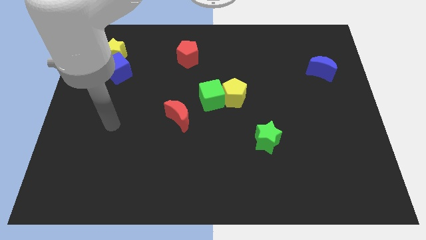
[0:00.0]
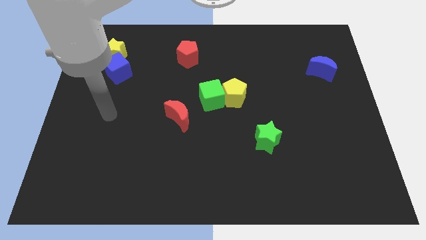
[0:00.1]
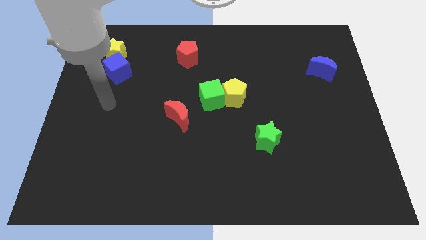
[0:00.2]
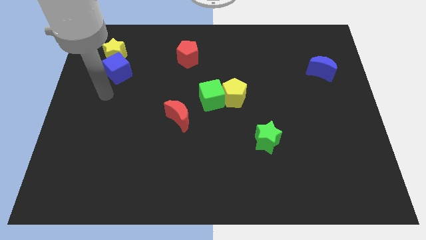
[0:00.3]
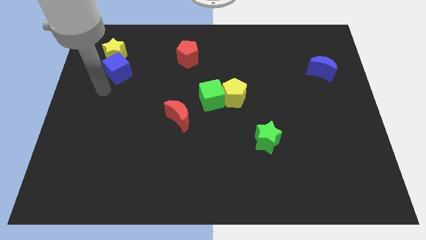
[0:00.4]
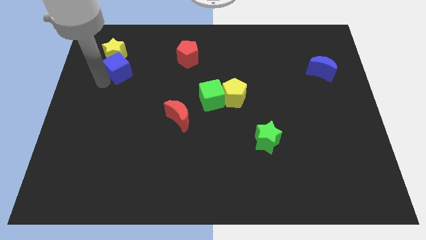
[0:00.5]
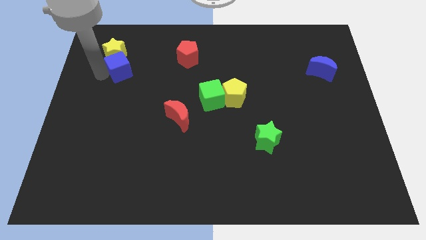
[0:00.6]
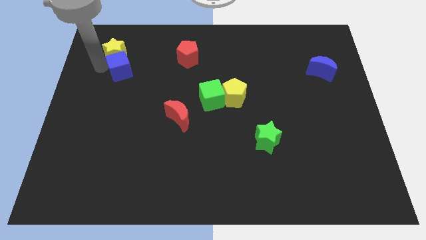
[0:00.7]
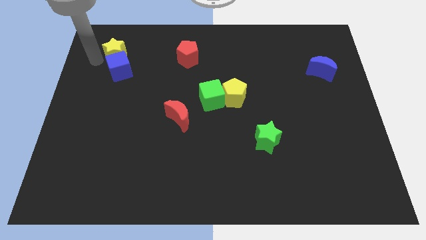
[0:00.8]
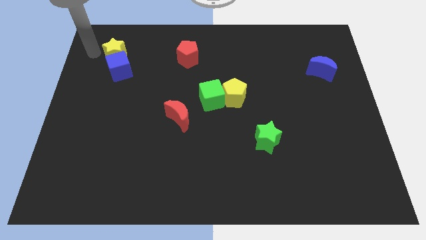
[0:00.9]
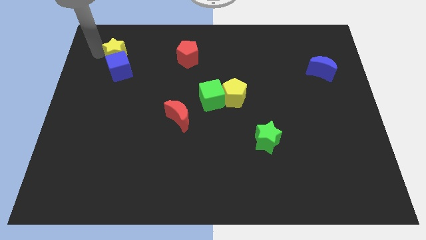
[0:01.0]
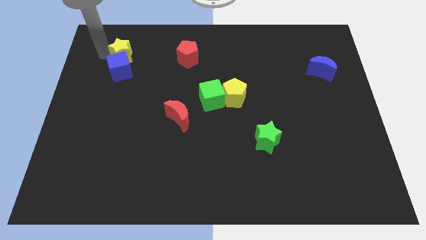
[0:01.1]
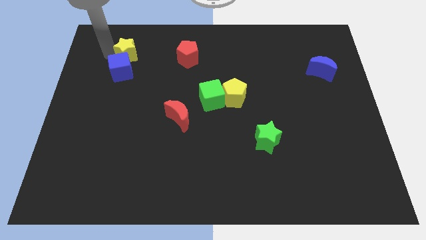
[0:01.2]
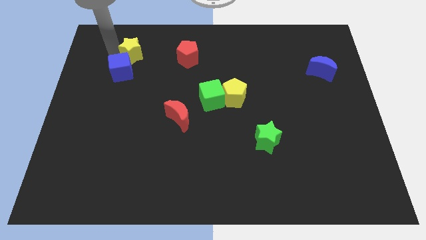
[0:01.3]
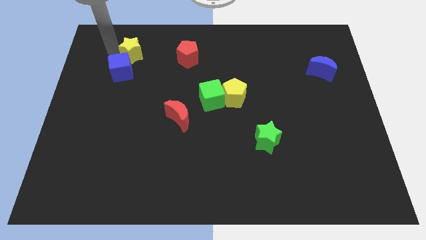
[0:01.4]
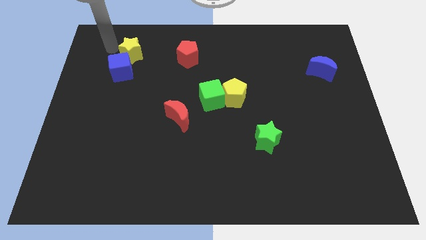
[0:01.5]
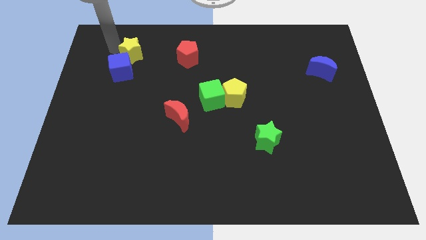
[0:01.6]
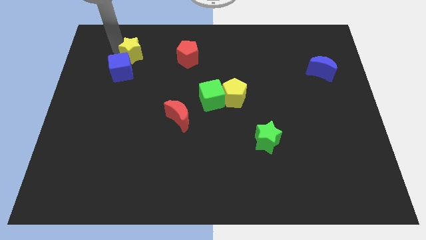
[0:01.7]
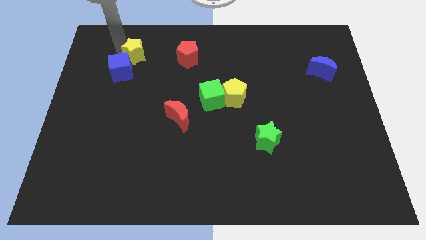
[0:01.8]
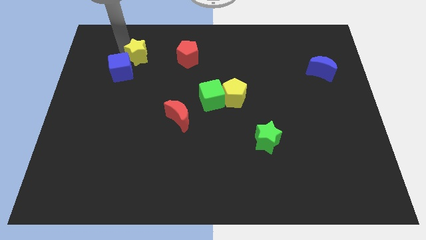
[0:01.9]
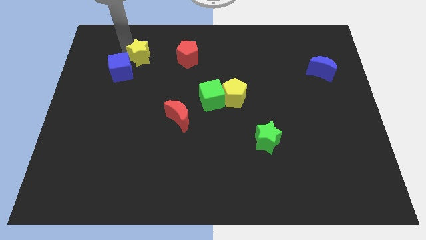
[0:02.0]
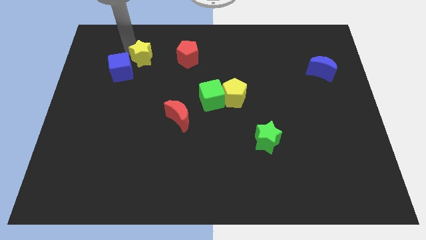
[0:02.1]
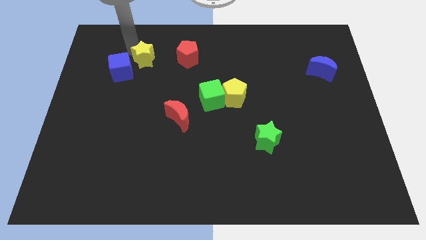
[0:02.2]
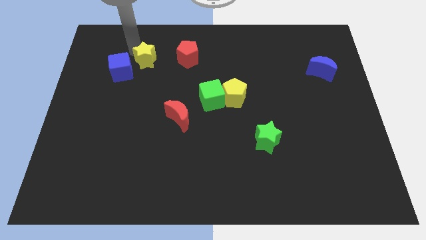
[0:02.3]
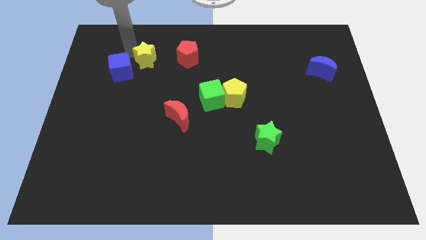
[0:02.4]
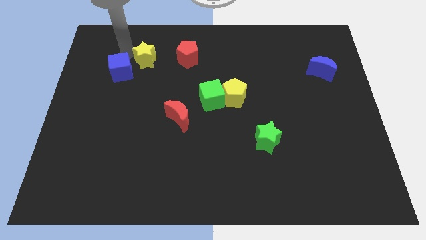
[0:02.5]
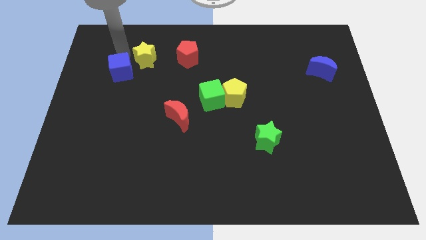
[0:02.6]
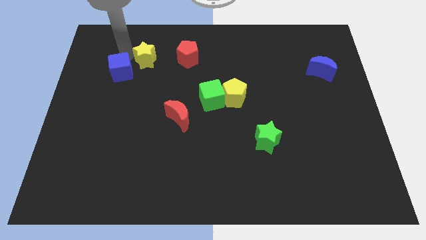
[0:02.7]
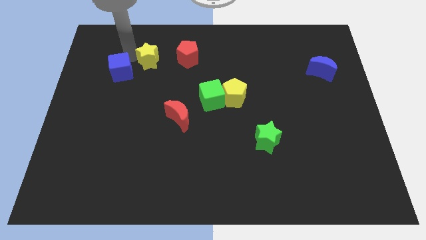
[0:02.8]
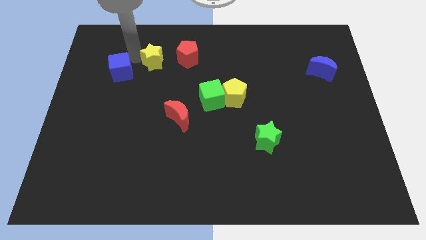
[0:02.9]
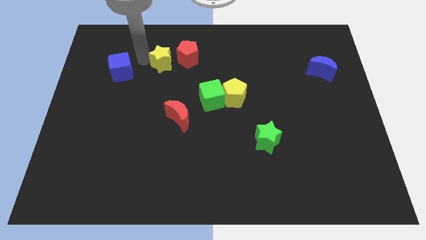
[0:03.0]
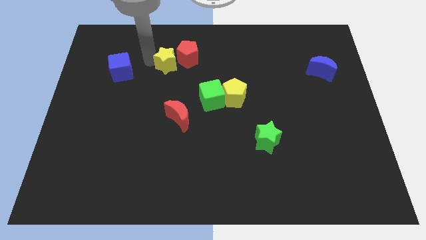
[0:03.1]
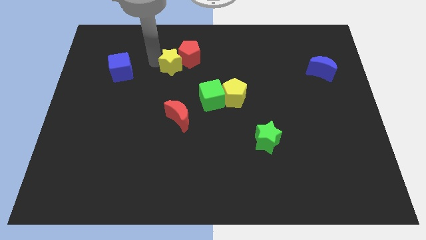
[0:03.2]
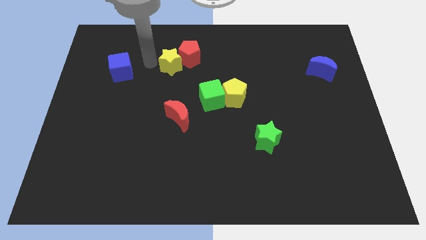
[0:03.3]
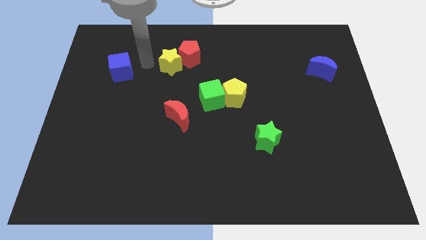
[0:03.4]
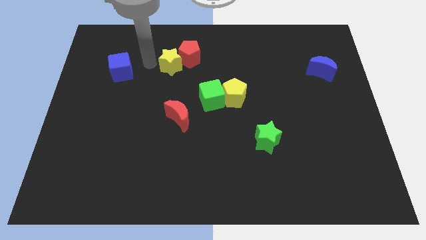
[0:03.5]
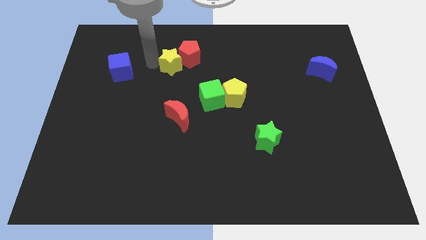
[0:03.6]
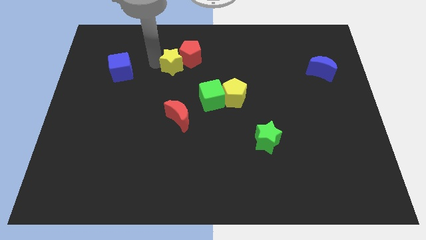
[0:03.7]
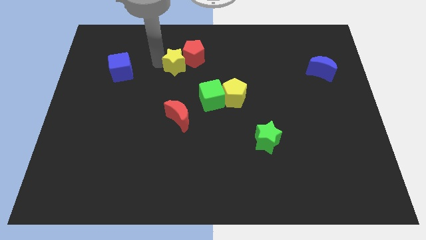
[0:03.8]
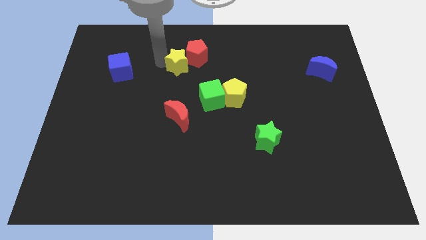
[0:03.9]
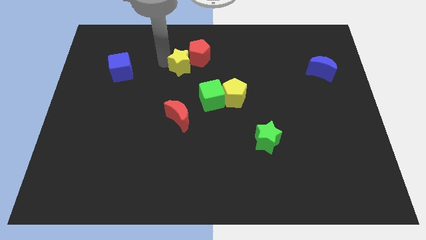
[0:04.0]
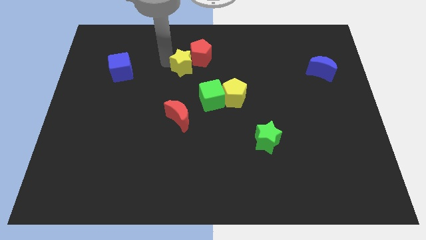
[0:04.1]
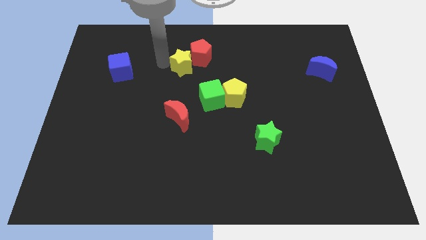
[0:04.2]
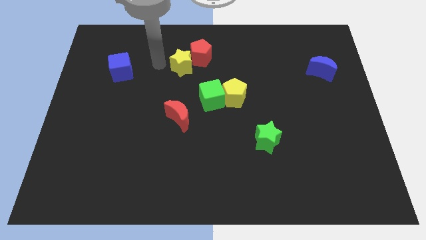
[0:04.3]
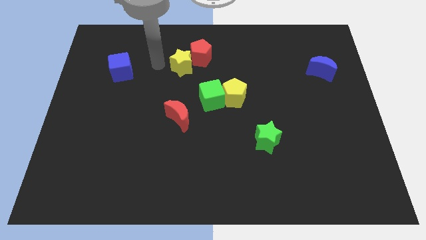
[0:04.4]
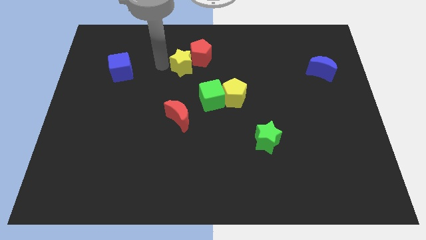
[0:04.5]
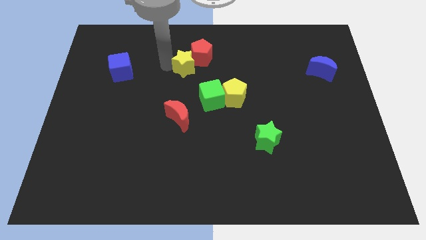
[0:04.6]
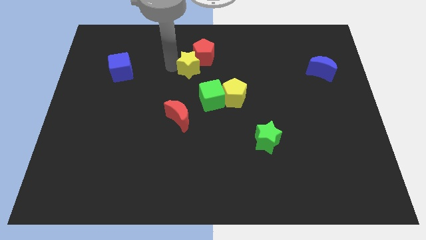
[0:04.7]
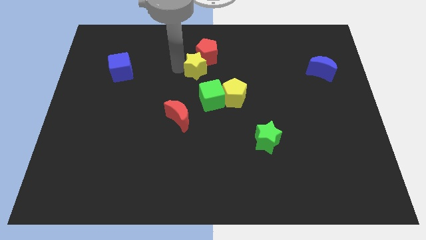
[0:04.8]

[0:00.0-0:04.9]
put the yellow star to the top side of the green cube

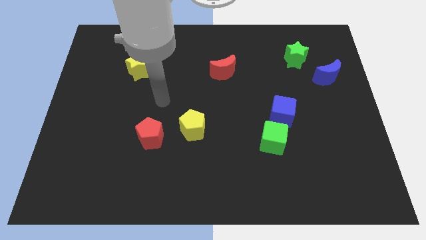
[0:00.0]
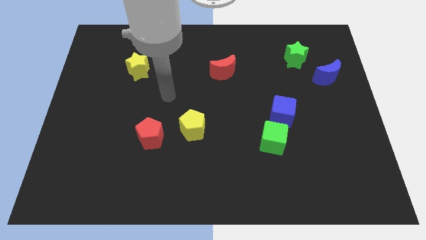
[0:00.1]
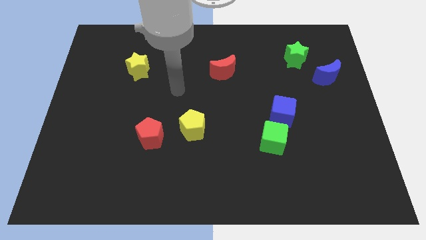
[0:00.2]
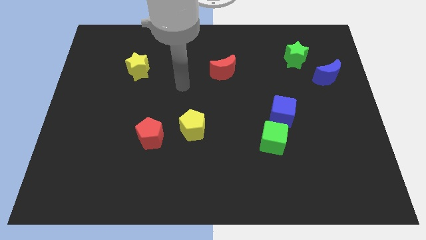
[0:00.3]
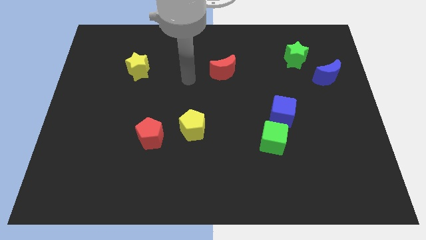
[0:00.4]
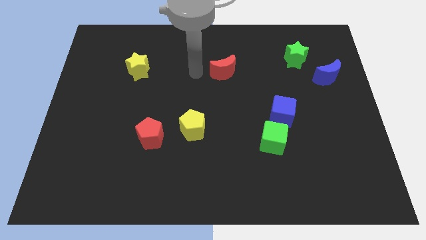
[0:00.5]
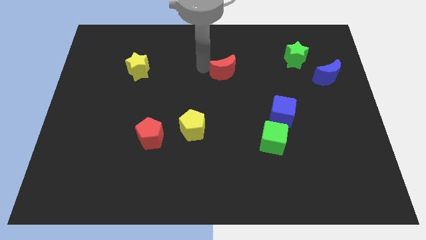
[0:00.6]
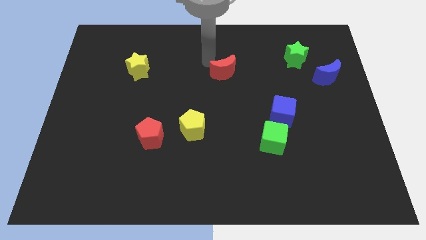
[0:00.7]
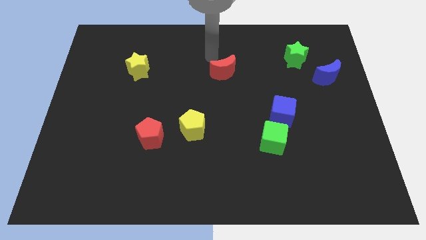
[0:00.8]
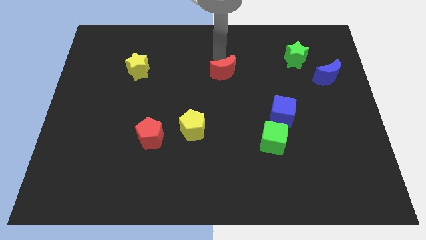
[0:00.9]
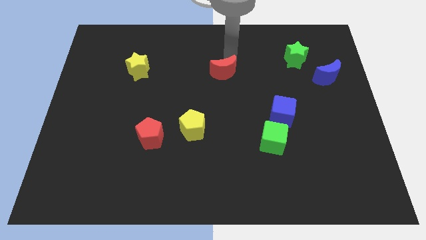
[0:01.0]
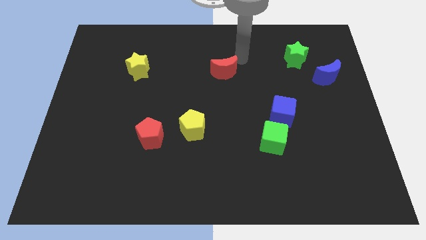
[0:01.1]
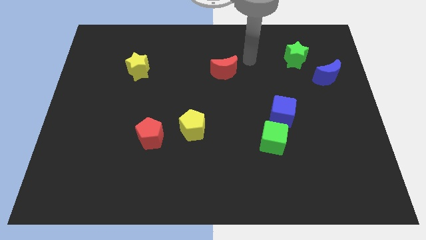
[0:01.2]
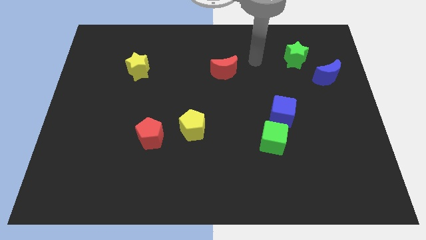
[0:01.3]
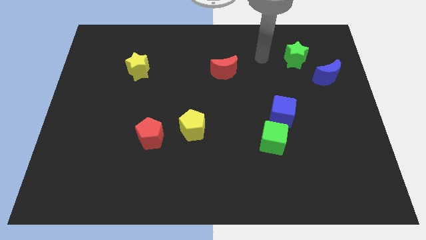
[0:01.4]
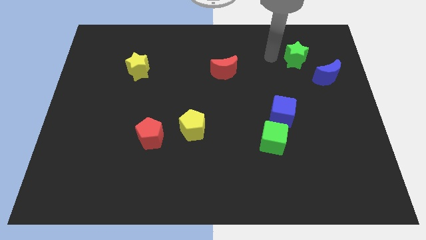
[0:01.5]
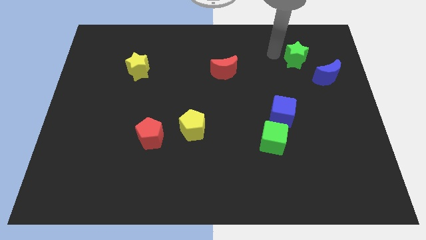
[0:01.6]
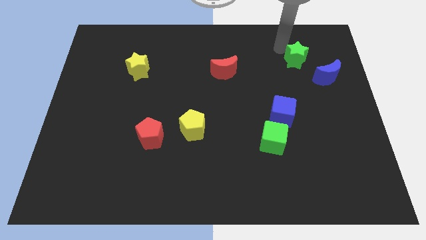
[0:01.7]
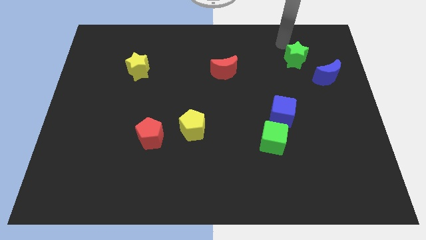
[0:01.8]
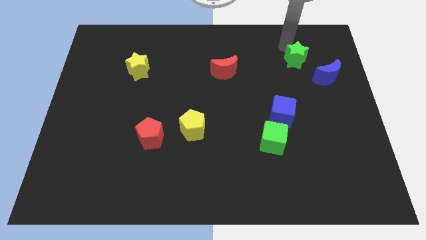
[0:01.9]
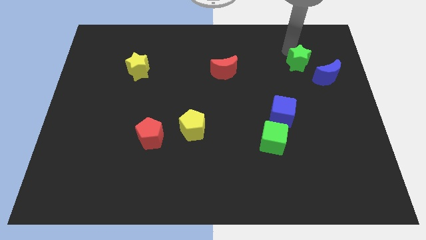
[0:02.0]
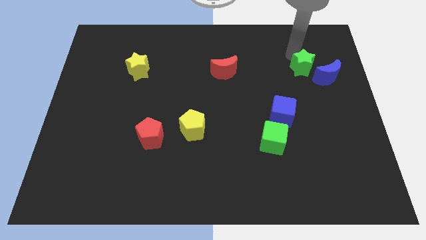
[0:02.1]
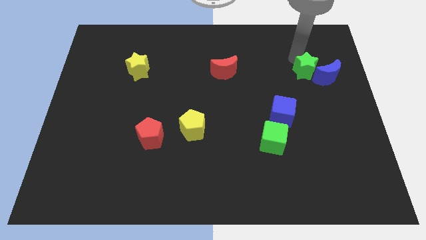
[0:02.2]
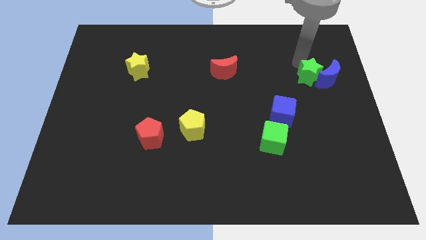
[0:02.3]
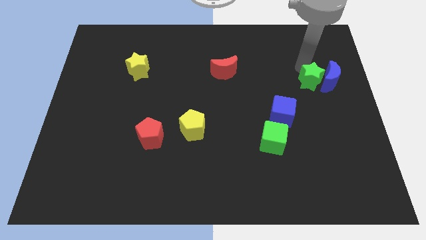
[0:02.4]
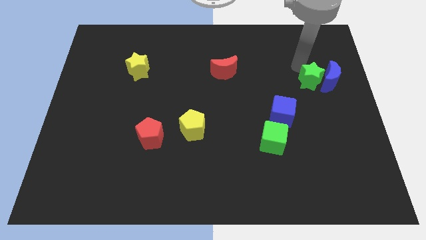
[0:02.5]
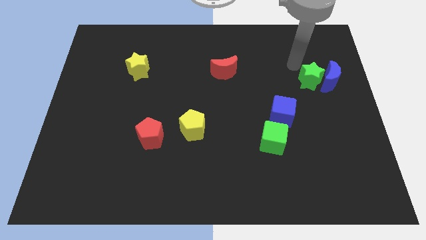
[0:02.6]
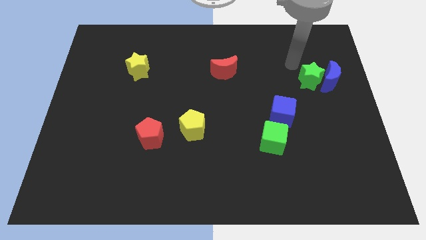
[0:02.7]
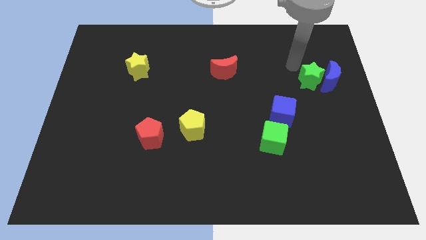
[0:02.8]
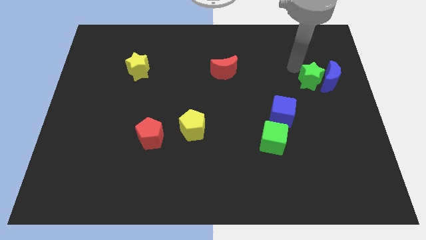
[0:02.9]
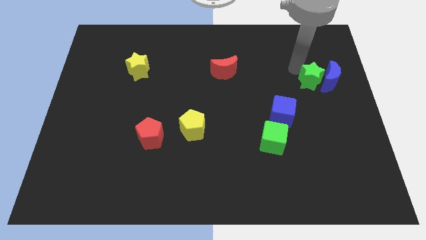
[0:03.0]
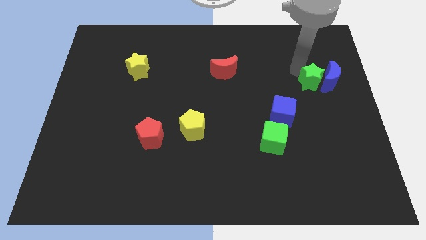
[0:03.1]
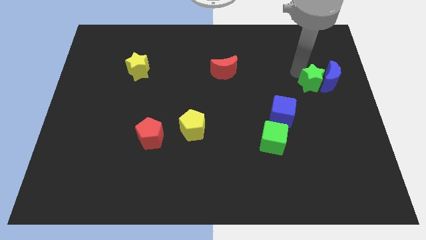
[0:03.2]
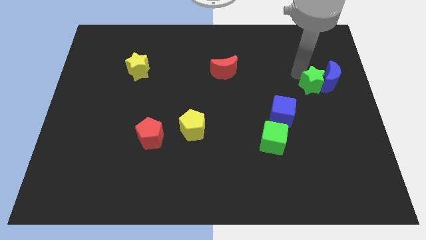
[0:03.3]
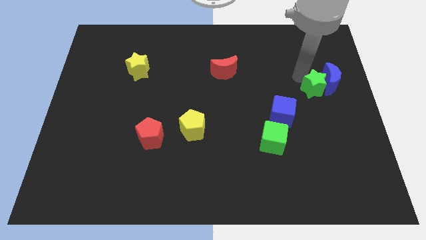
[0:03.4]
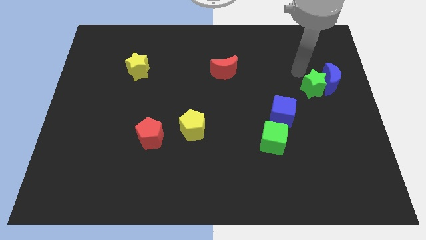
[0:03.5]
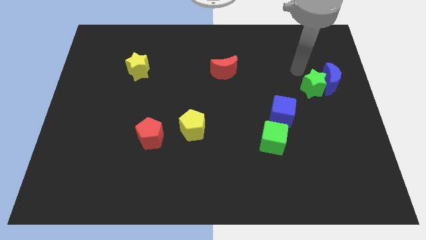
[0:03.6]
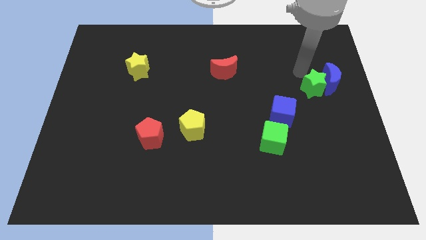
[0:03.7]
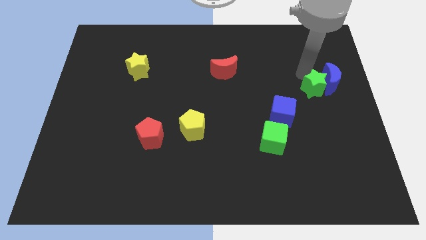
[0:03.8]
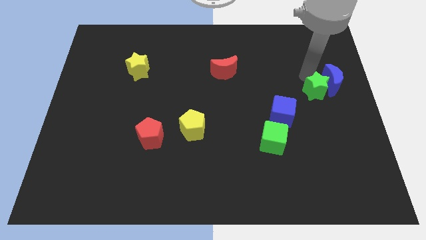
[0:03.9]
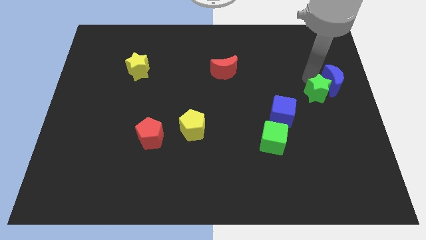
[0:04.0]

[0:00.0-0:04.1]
slide the green star to the bottom side of the blue moon
